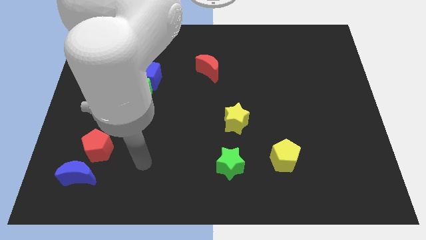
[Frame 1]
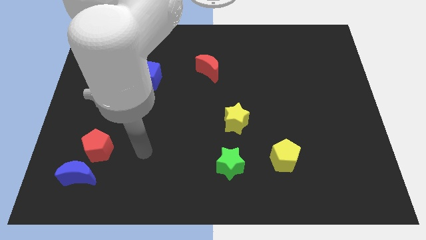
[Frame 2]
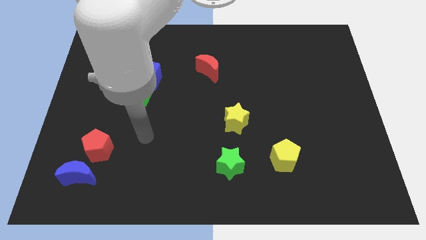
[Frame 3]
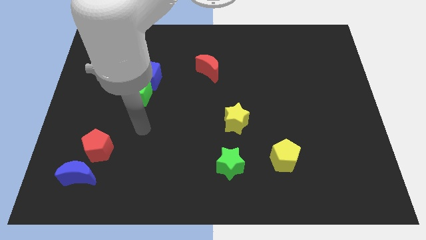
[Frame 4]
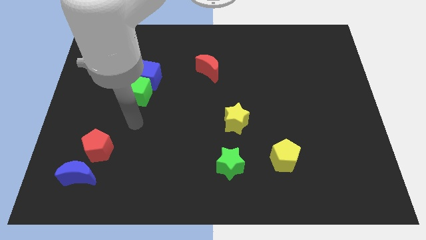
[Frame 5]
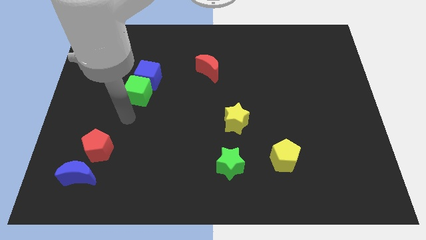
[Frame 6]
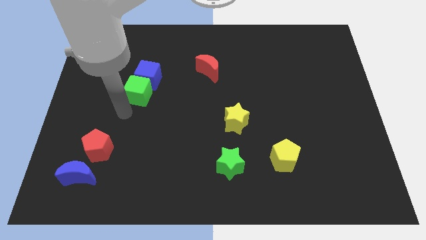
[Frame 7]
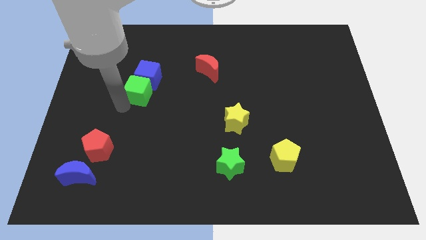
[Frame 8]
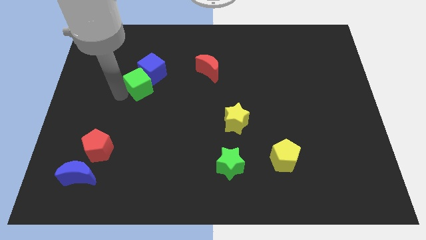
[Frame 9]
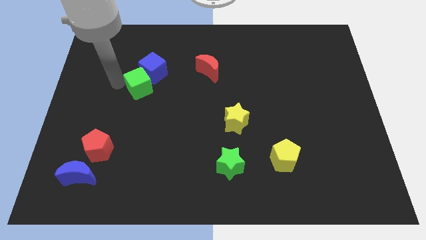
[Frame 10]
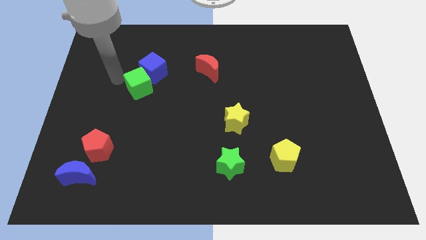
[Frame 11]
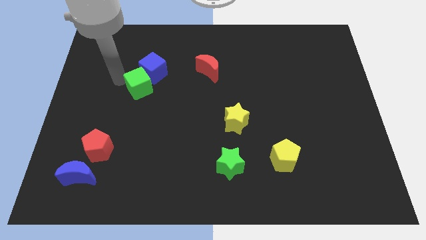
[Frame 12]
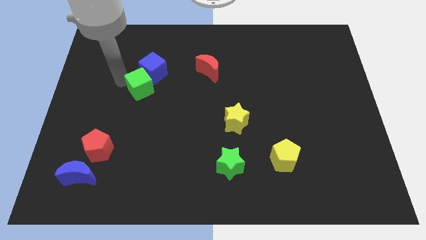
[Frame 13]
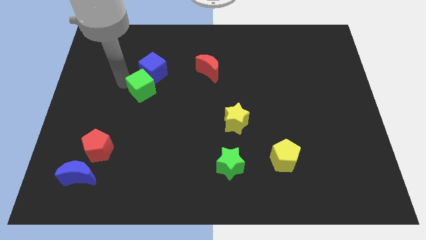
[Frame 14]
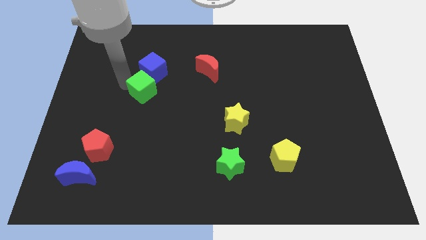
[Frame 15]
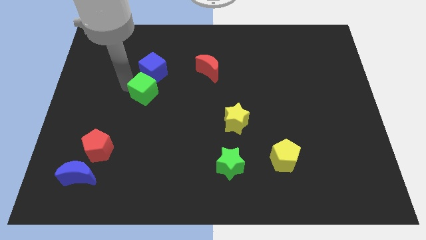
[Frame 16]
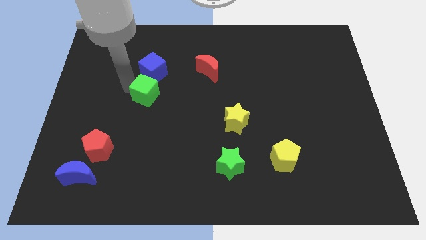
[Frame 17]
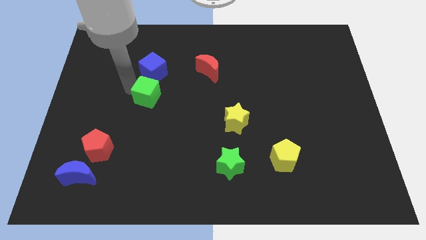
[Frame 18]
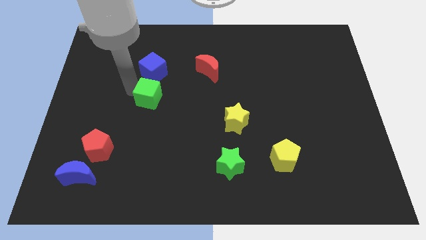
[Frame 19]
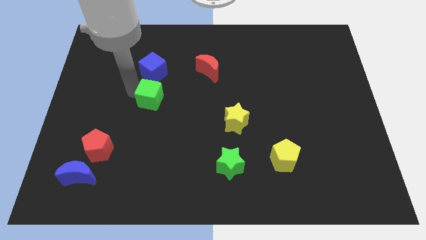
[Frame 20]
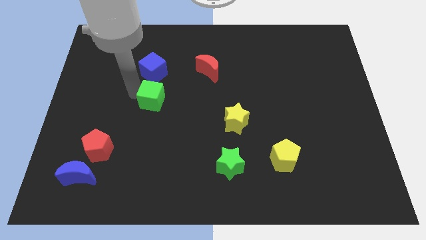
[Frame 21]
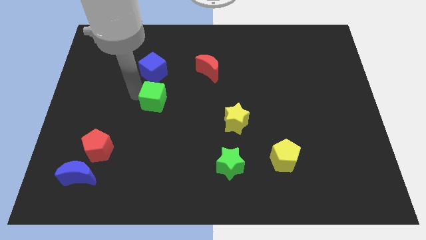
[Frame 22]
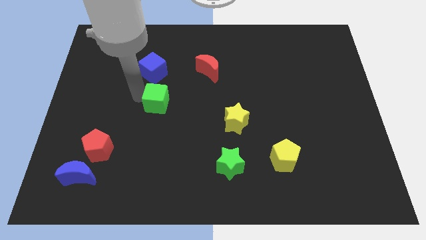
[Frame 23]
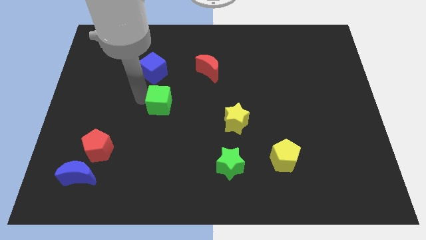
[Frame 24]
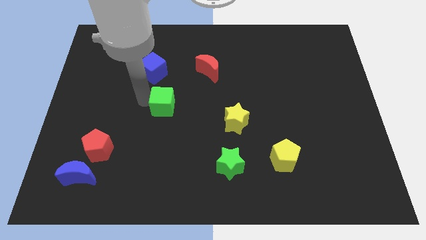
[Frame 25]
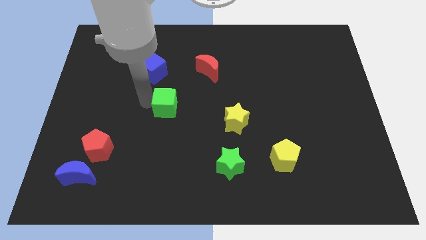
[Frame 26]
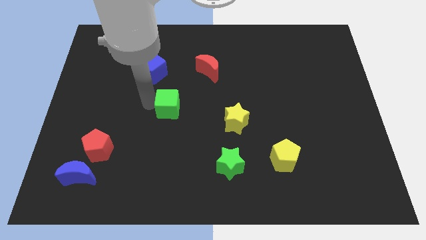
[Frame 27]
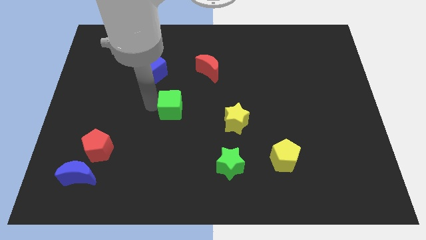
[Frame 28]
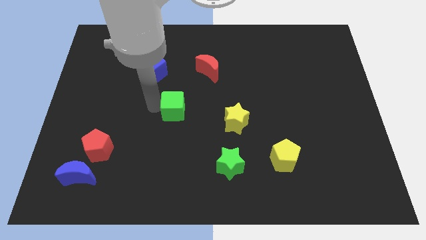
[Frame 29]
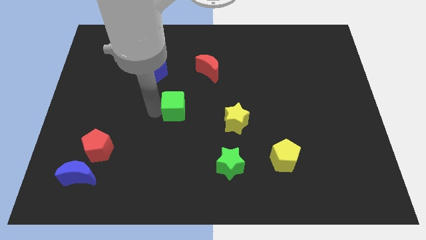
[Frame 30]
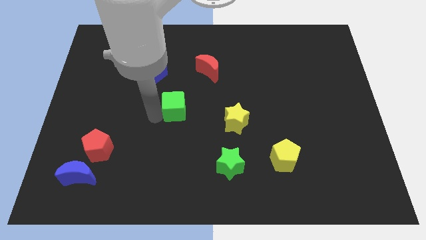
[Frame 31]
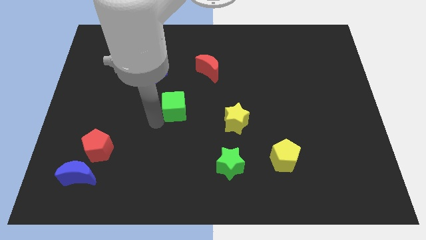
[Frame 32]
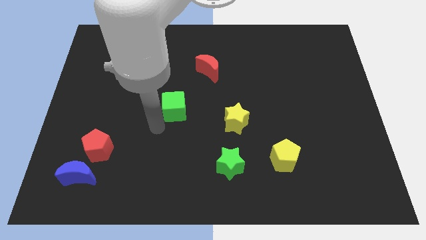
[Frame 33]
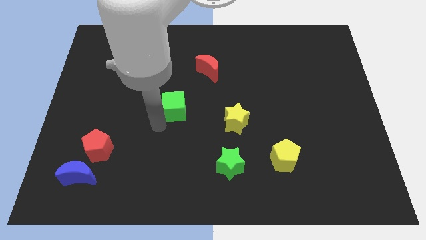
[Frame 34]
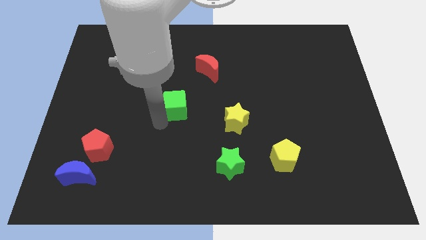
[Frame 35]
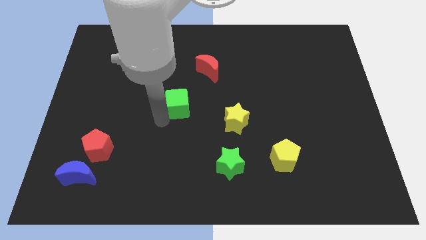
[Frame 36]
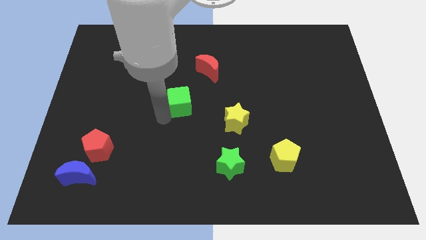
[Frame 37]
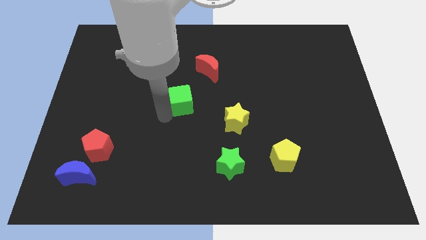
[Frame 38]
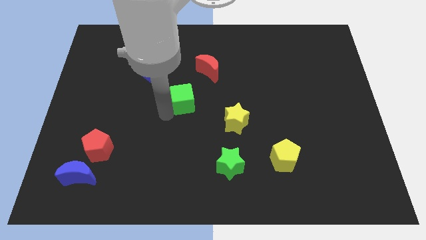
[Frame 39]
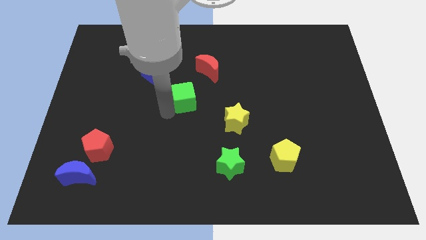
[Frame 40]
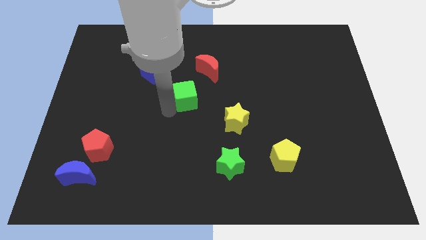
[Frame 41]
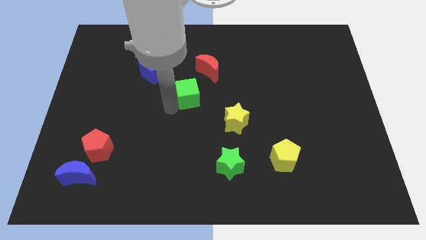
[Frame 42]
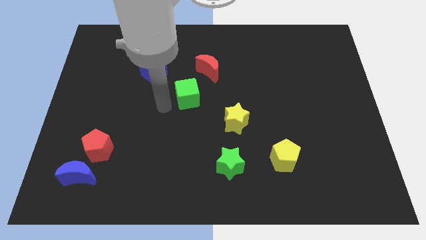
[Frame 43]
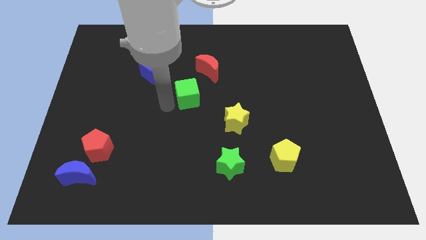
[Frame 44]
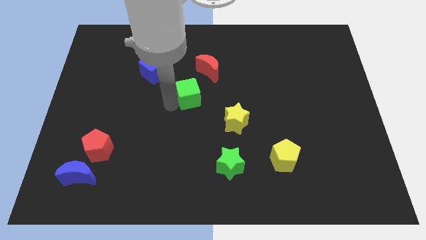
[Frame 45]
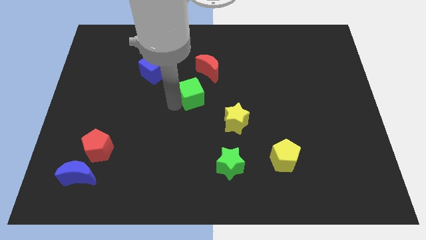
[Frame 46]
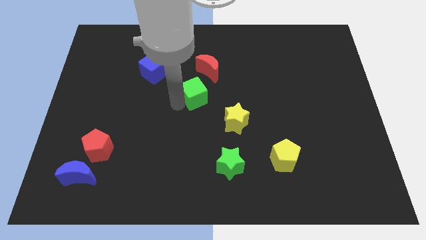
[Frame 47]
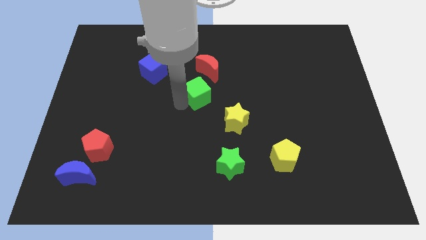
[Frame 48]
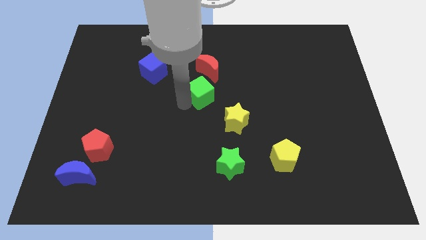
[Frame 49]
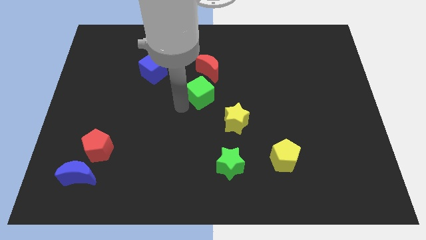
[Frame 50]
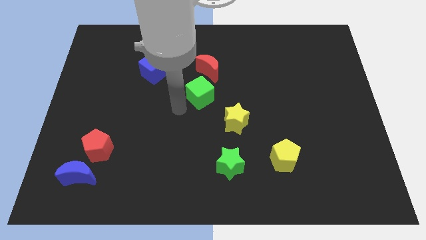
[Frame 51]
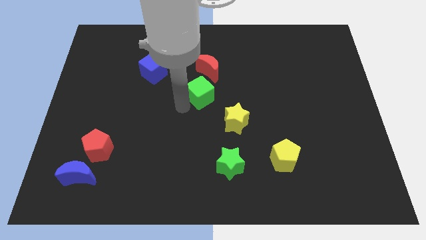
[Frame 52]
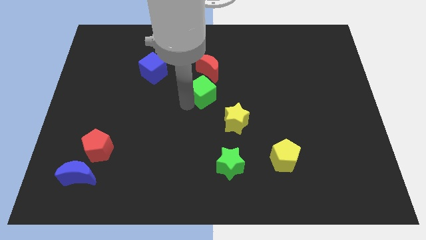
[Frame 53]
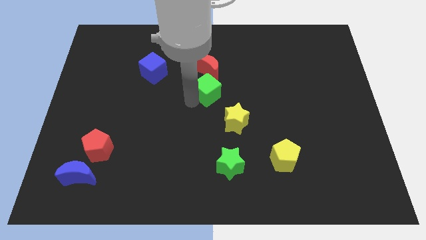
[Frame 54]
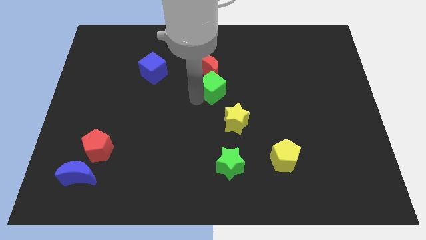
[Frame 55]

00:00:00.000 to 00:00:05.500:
push the green cube to the bottom right of the red moon

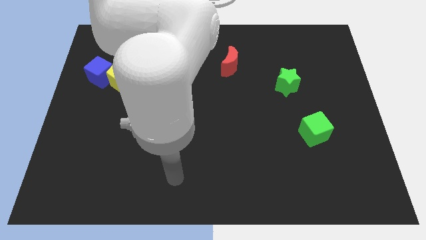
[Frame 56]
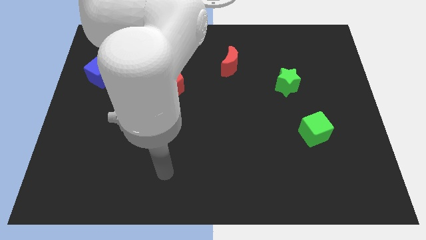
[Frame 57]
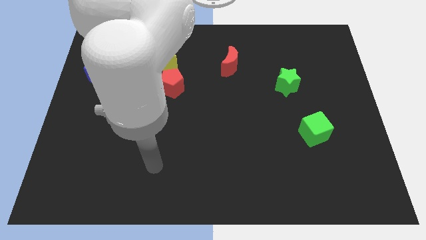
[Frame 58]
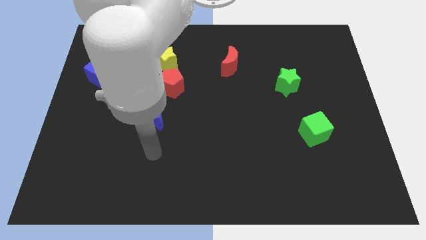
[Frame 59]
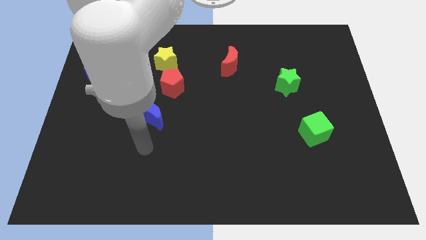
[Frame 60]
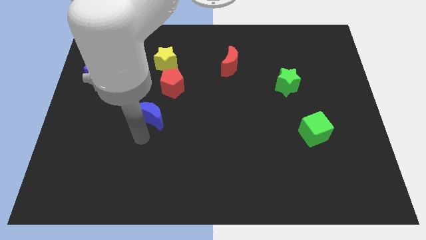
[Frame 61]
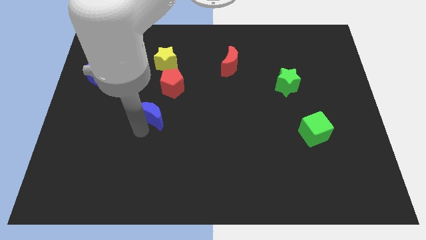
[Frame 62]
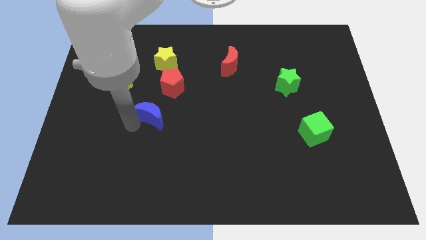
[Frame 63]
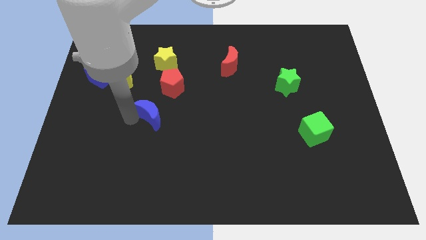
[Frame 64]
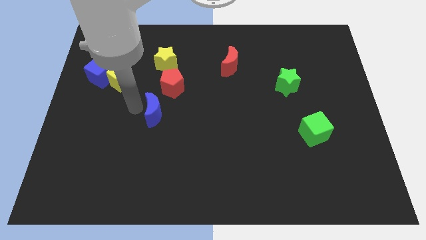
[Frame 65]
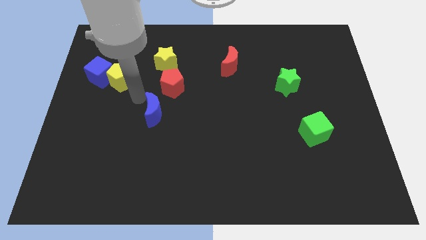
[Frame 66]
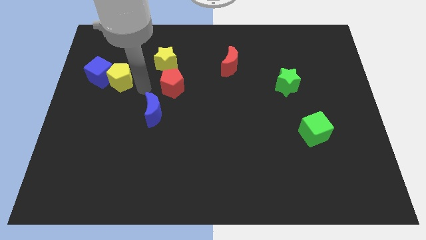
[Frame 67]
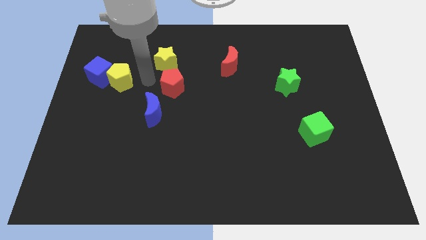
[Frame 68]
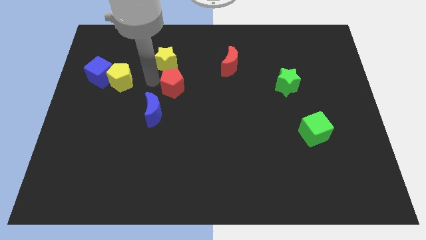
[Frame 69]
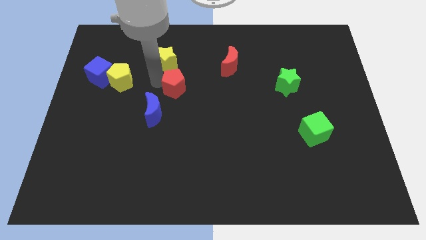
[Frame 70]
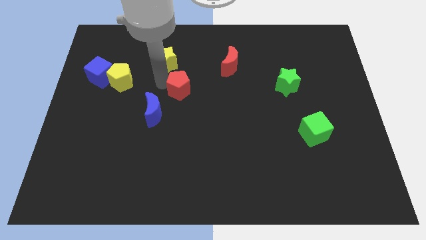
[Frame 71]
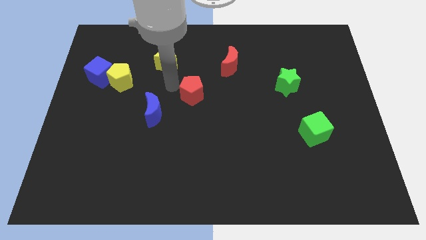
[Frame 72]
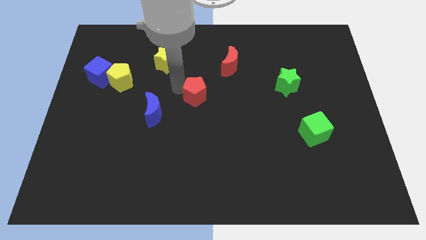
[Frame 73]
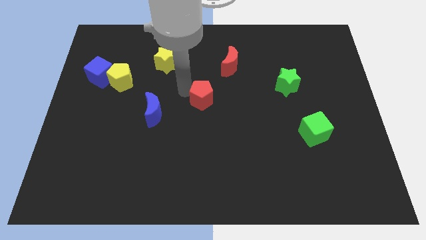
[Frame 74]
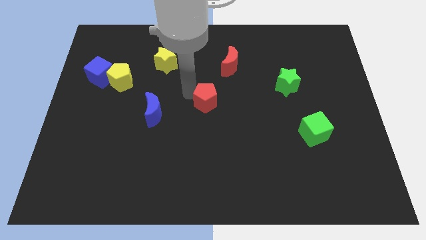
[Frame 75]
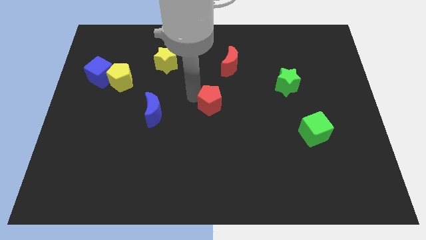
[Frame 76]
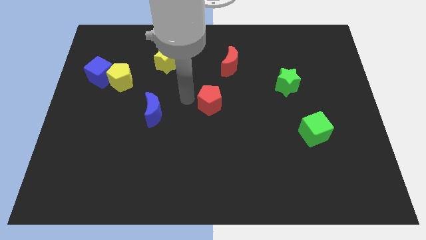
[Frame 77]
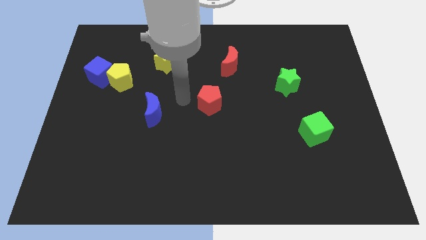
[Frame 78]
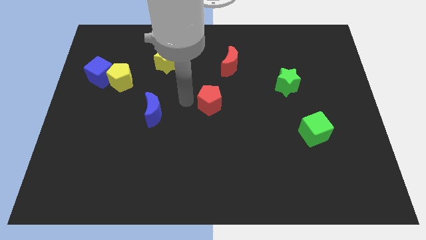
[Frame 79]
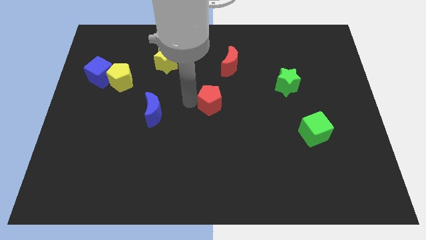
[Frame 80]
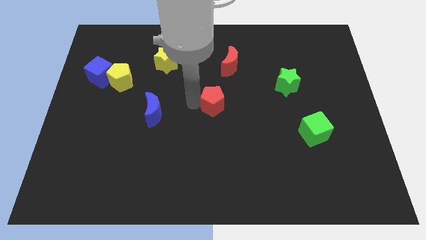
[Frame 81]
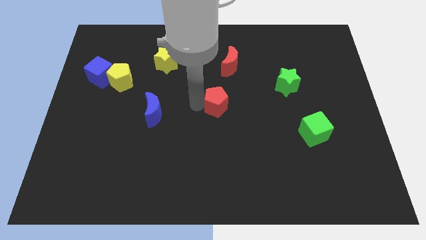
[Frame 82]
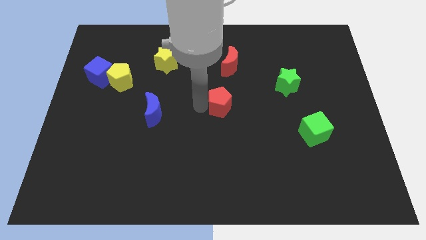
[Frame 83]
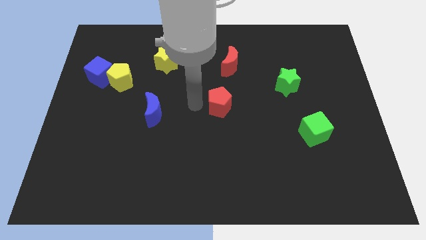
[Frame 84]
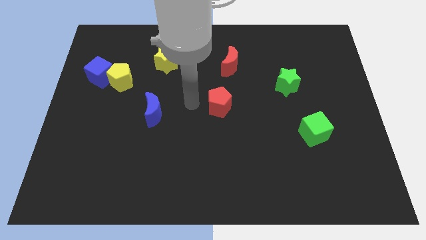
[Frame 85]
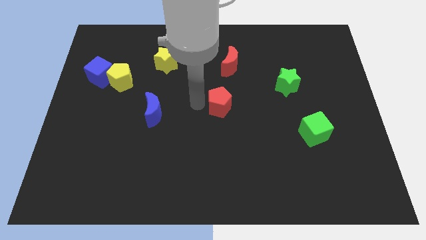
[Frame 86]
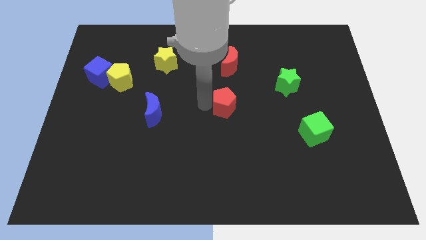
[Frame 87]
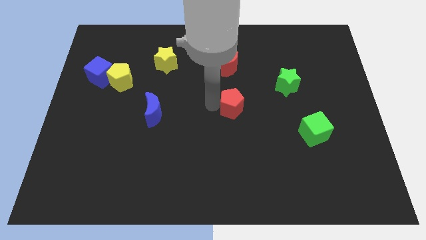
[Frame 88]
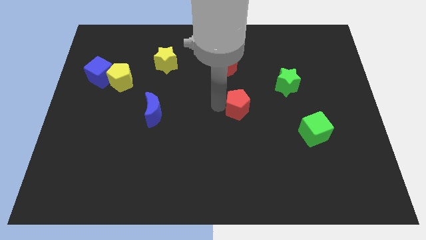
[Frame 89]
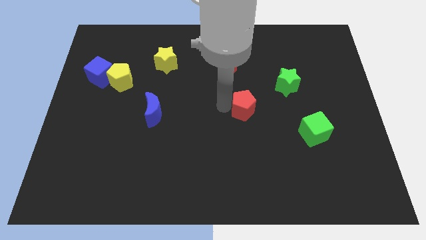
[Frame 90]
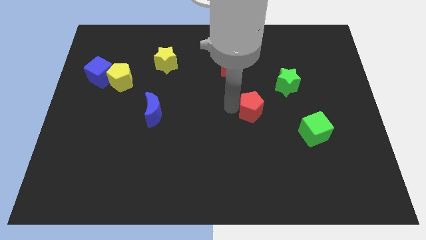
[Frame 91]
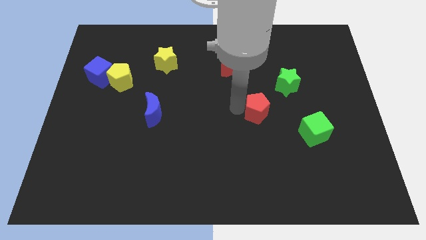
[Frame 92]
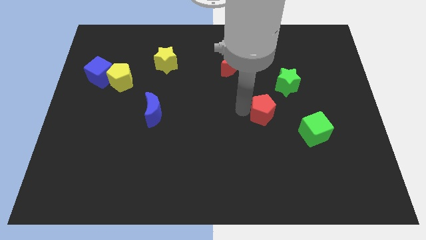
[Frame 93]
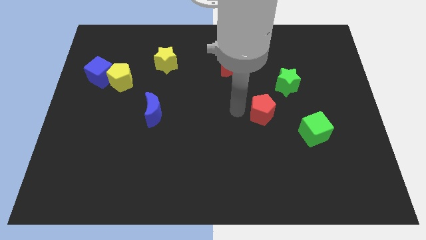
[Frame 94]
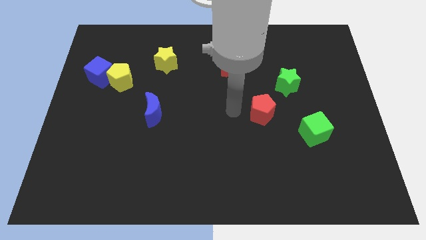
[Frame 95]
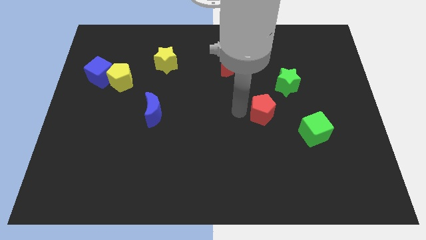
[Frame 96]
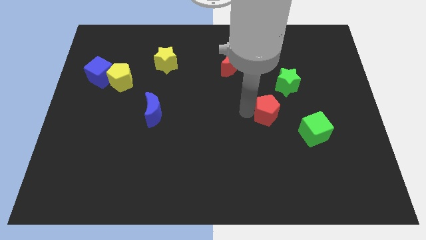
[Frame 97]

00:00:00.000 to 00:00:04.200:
put the red pentagon diagonally up and to the left of the green cube
